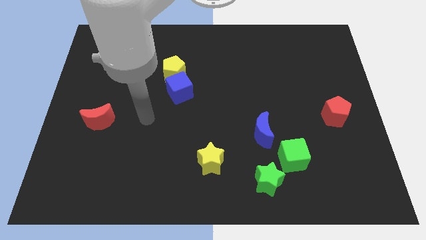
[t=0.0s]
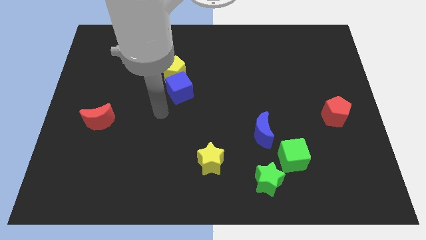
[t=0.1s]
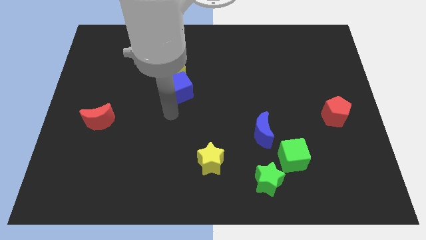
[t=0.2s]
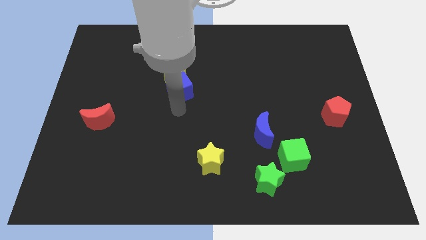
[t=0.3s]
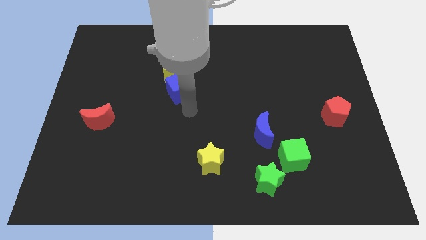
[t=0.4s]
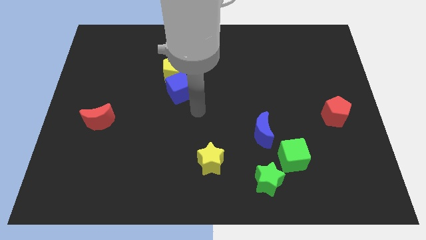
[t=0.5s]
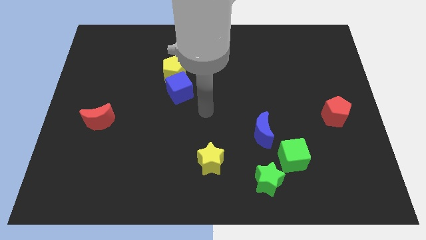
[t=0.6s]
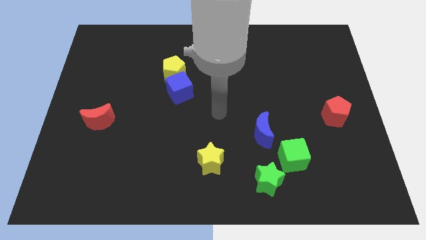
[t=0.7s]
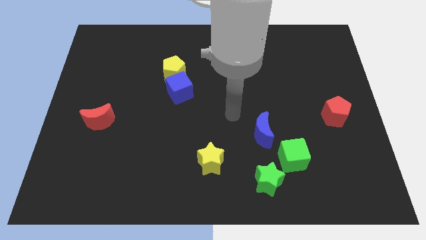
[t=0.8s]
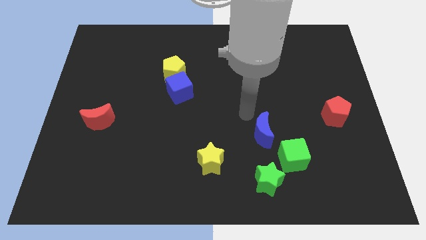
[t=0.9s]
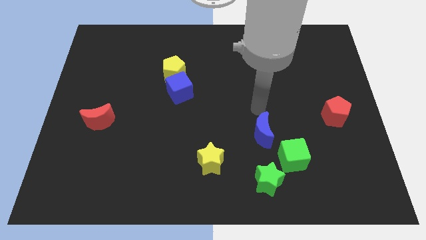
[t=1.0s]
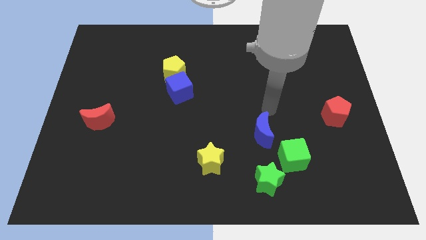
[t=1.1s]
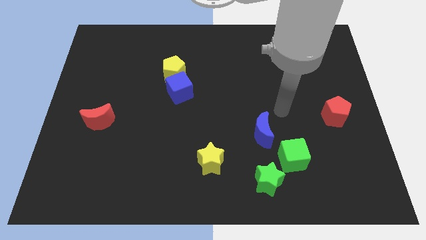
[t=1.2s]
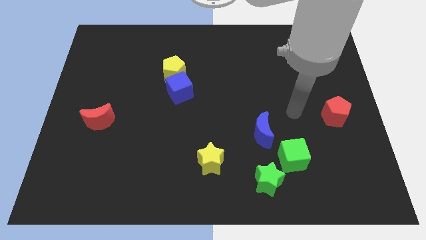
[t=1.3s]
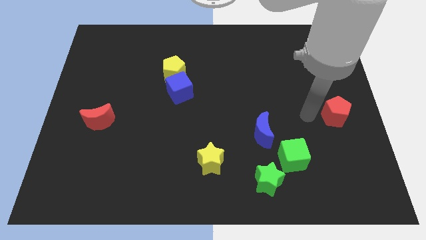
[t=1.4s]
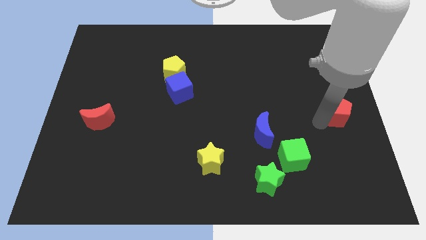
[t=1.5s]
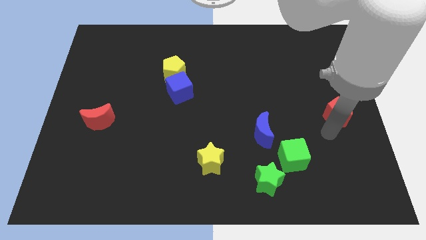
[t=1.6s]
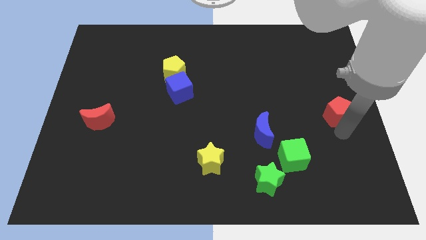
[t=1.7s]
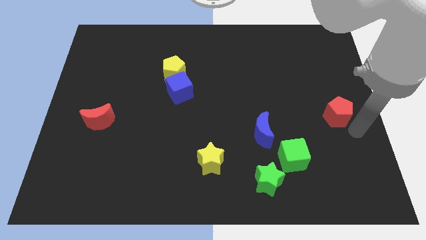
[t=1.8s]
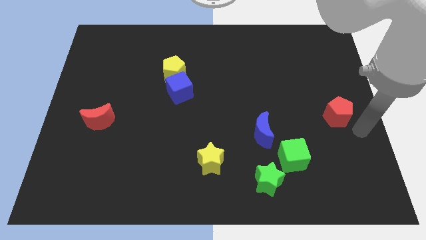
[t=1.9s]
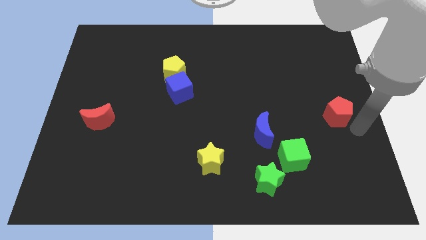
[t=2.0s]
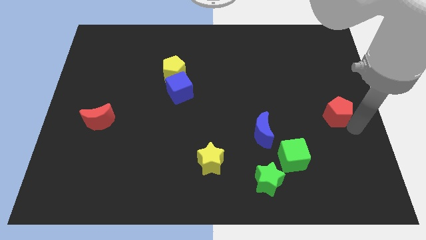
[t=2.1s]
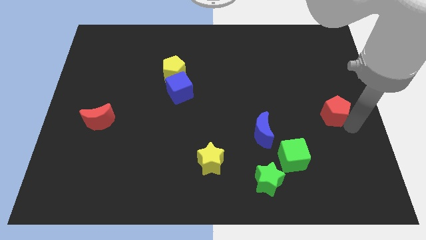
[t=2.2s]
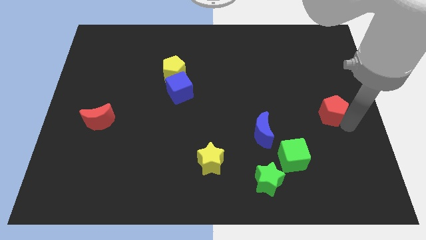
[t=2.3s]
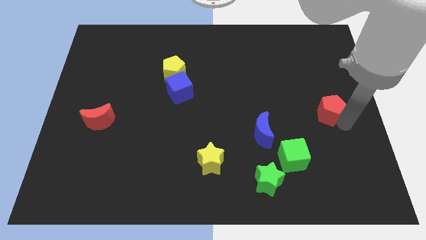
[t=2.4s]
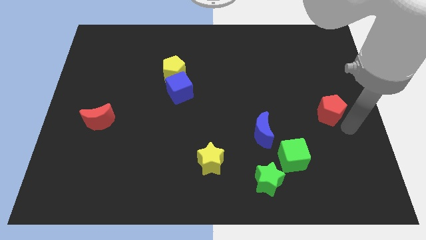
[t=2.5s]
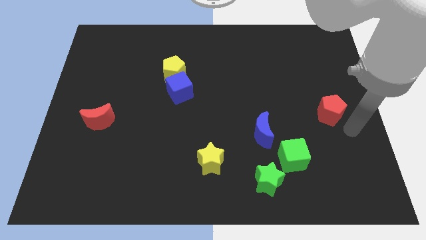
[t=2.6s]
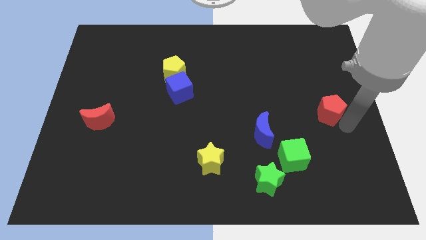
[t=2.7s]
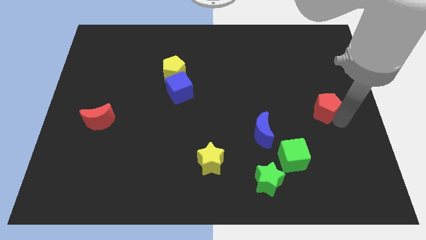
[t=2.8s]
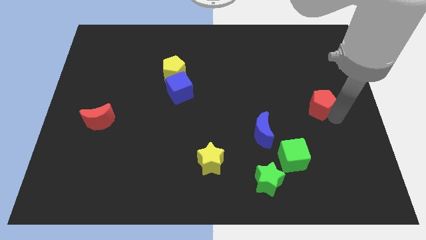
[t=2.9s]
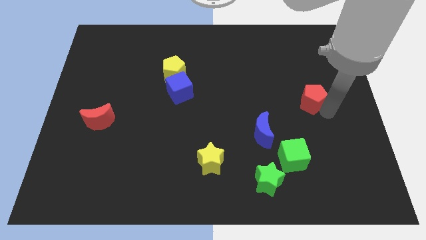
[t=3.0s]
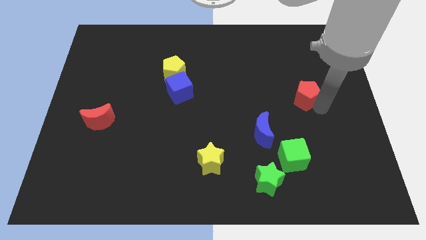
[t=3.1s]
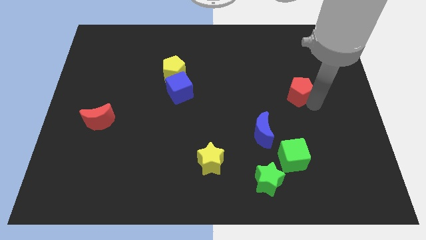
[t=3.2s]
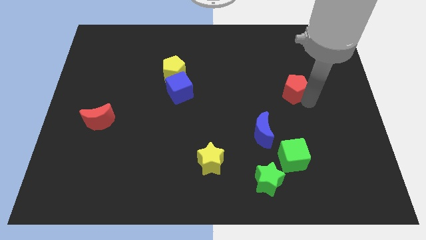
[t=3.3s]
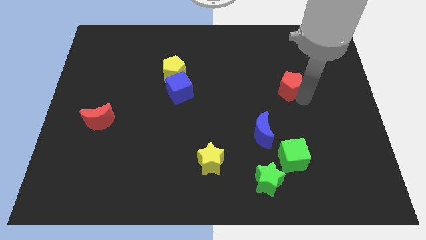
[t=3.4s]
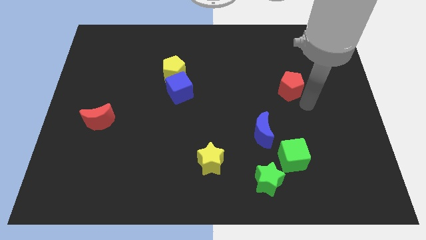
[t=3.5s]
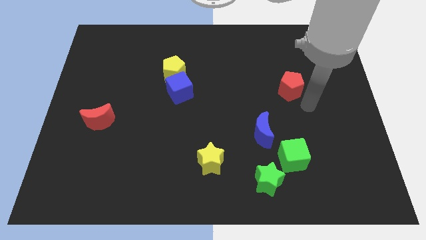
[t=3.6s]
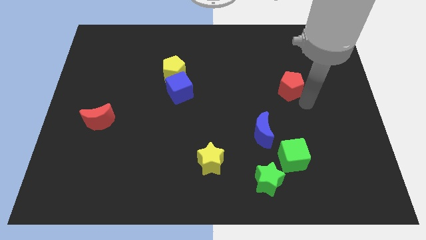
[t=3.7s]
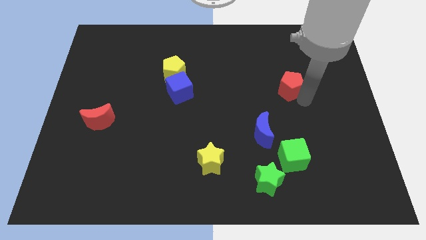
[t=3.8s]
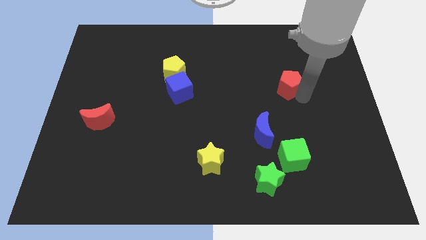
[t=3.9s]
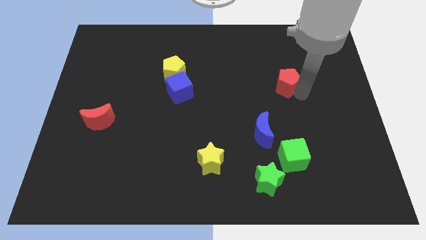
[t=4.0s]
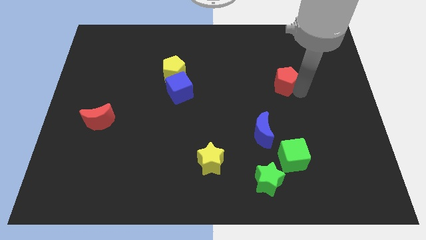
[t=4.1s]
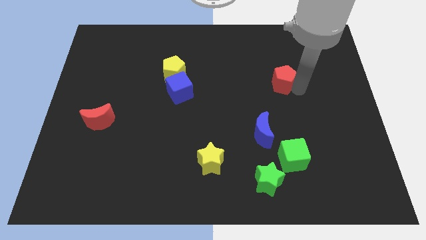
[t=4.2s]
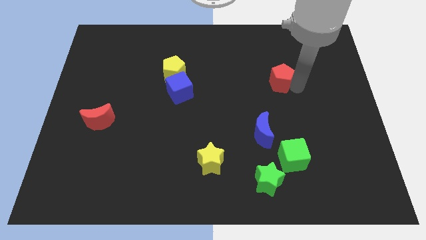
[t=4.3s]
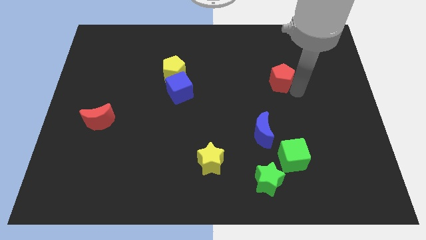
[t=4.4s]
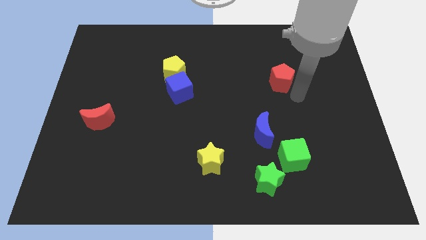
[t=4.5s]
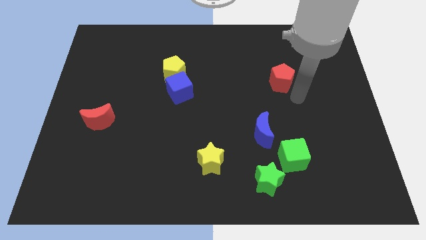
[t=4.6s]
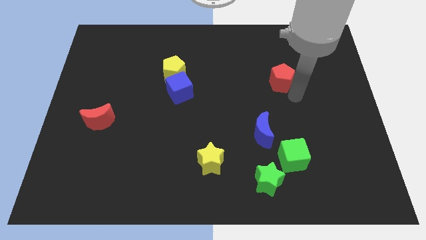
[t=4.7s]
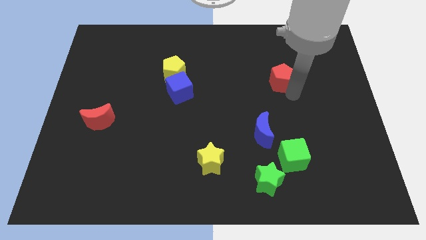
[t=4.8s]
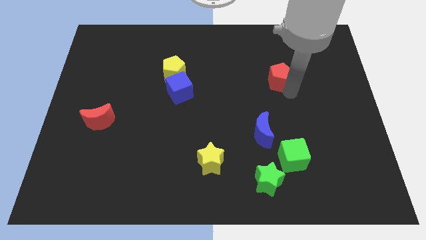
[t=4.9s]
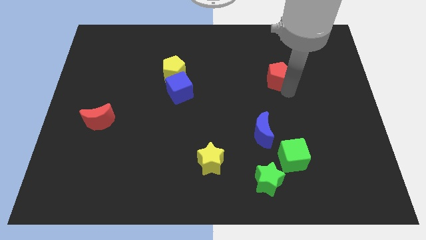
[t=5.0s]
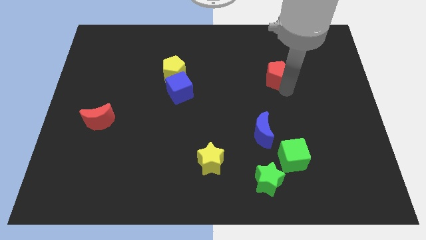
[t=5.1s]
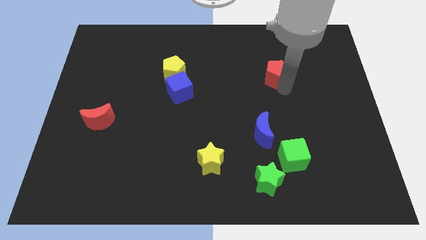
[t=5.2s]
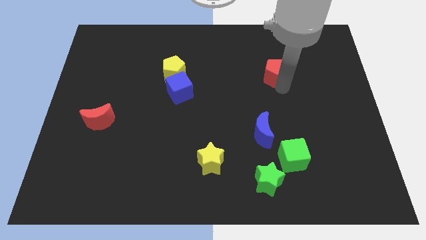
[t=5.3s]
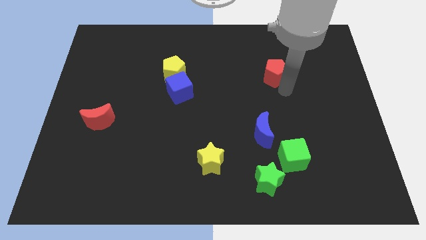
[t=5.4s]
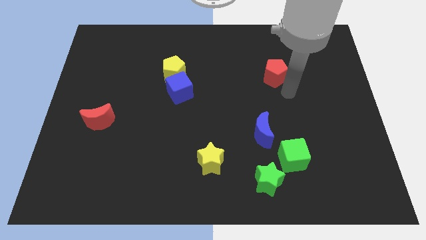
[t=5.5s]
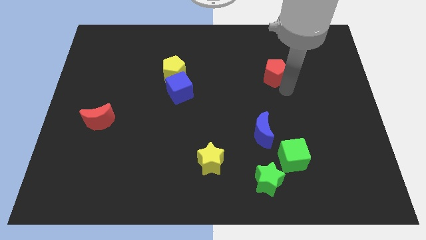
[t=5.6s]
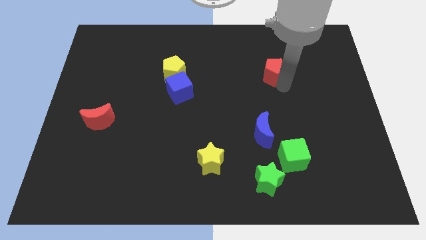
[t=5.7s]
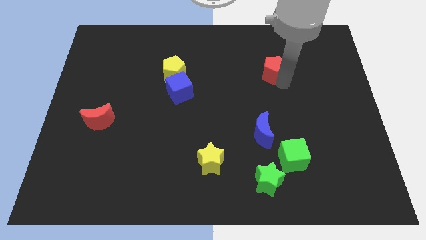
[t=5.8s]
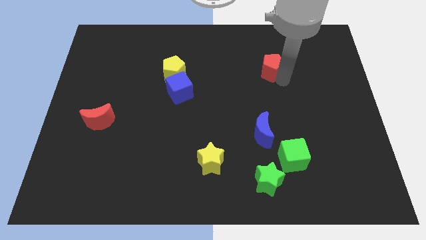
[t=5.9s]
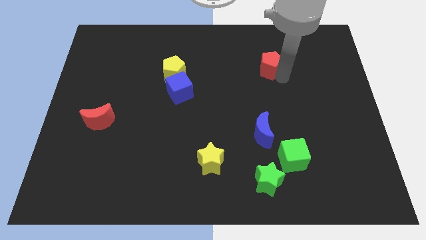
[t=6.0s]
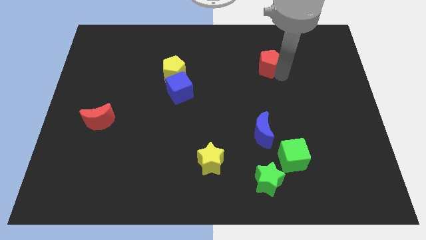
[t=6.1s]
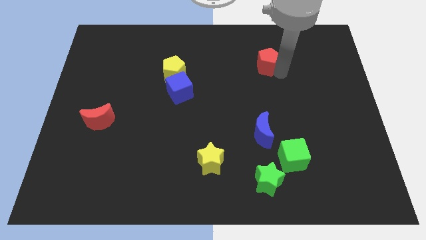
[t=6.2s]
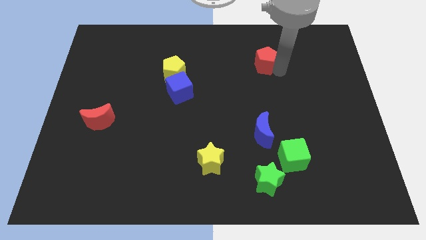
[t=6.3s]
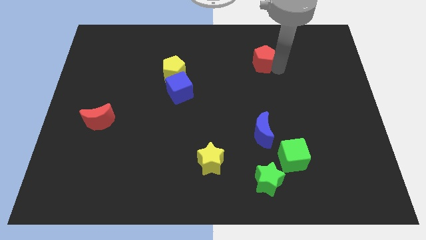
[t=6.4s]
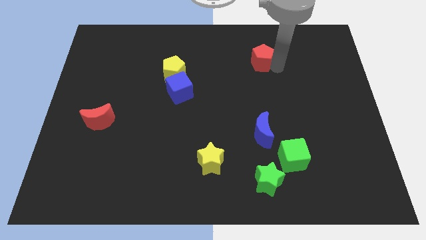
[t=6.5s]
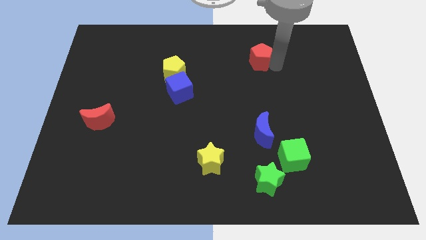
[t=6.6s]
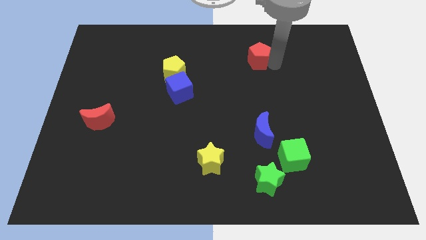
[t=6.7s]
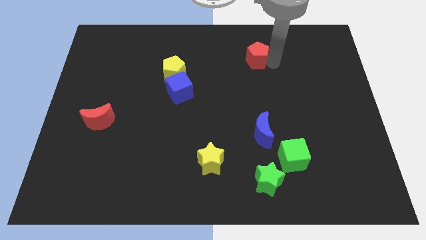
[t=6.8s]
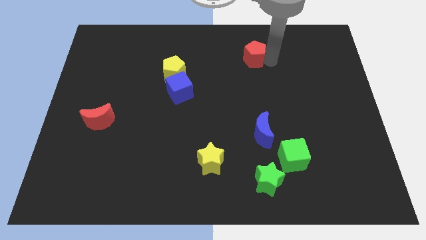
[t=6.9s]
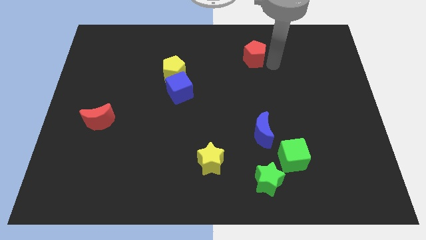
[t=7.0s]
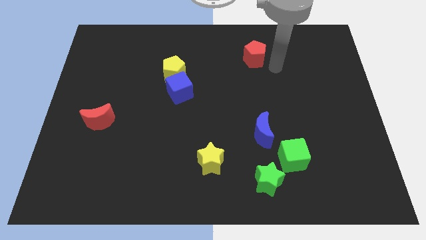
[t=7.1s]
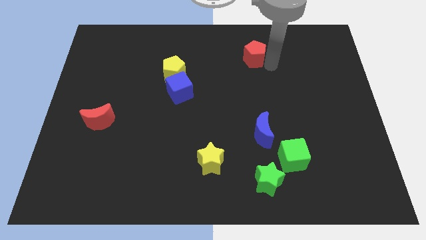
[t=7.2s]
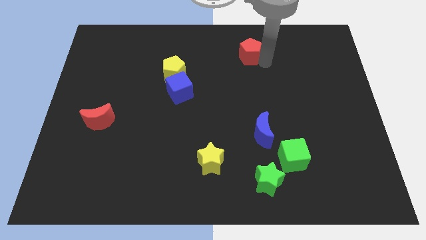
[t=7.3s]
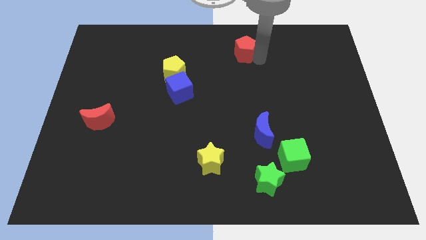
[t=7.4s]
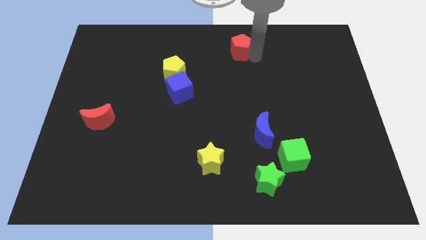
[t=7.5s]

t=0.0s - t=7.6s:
move the red pentagon to the top
